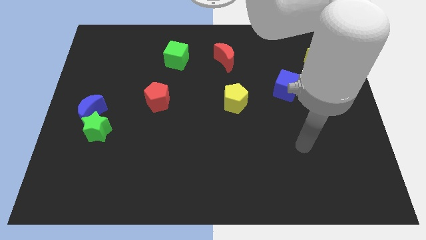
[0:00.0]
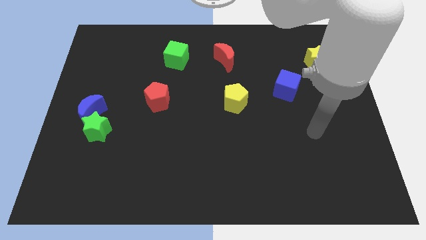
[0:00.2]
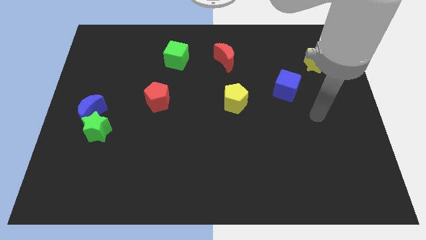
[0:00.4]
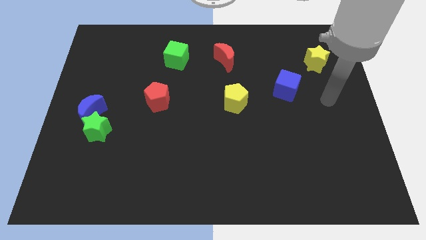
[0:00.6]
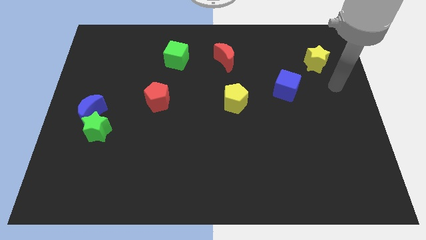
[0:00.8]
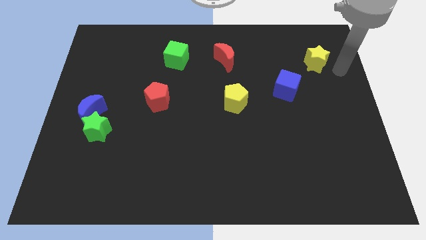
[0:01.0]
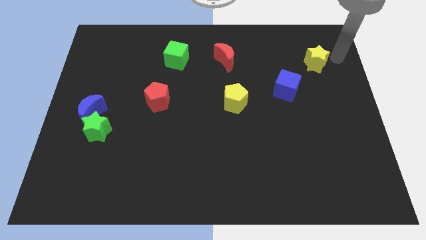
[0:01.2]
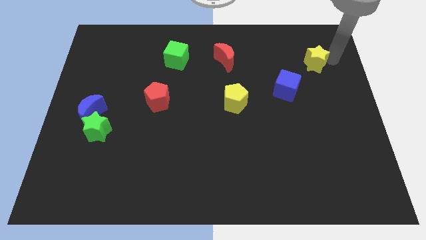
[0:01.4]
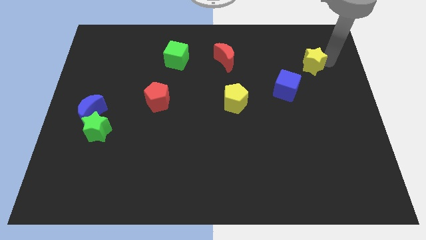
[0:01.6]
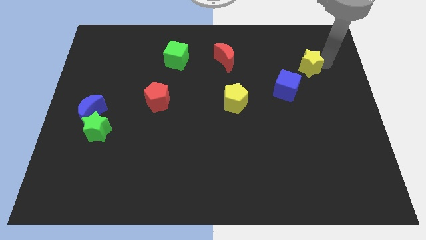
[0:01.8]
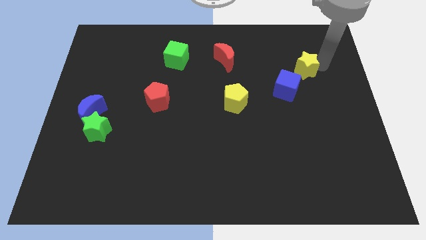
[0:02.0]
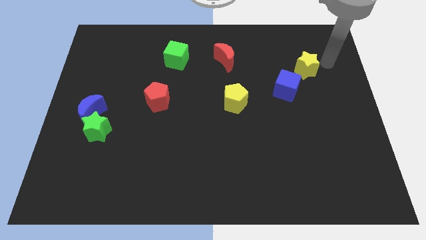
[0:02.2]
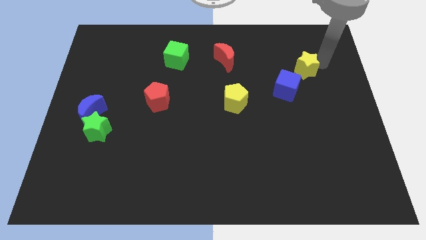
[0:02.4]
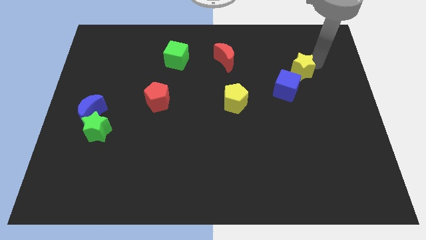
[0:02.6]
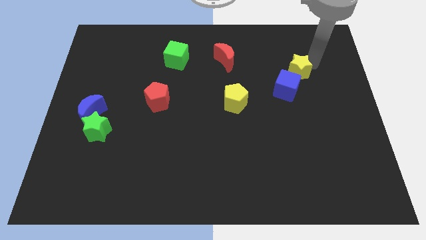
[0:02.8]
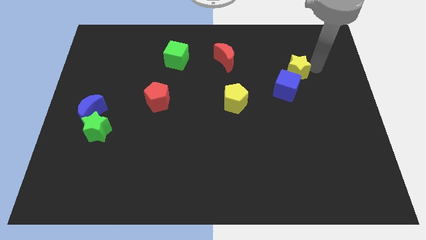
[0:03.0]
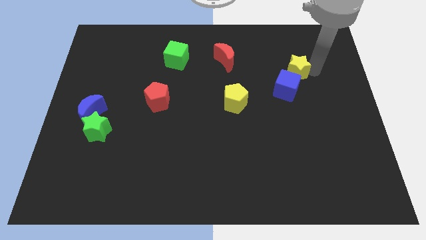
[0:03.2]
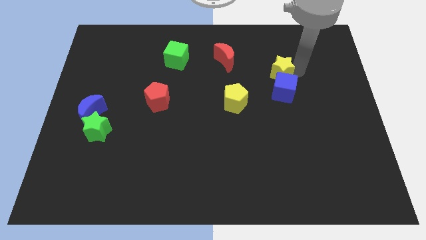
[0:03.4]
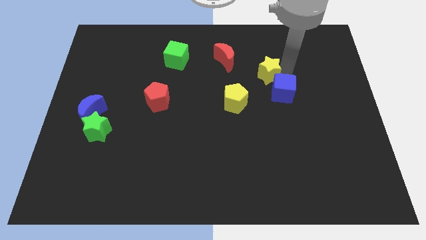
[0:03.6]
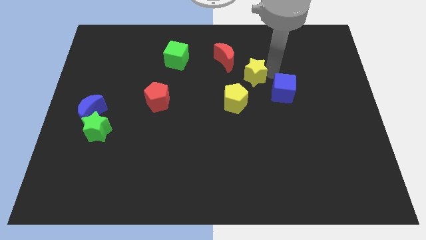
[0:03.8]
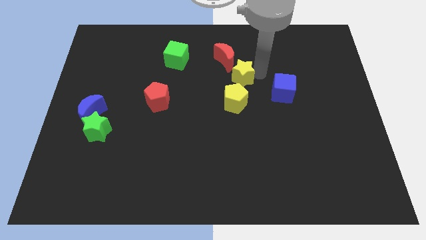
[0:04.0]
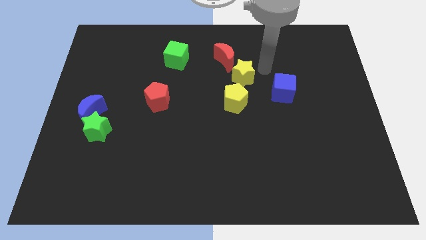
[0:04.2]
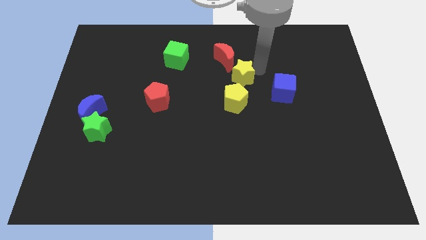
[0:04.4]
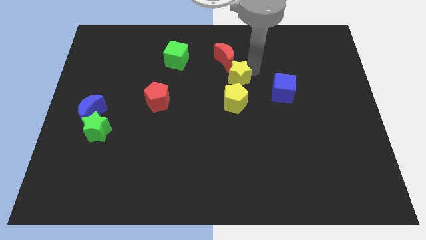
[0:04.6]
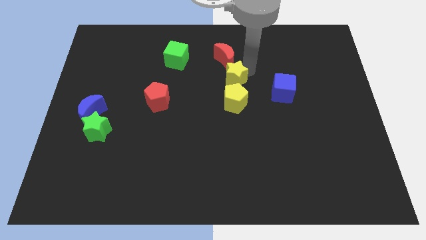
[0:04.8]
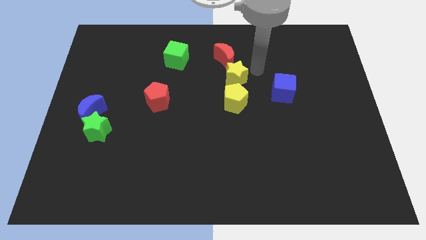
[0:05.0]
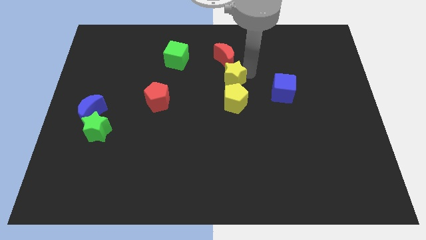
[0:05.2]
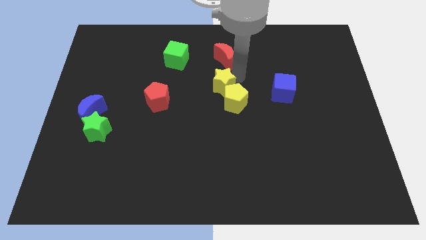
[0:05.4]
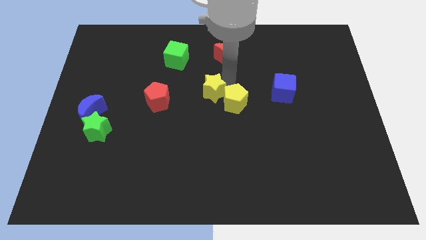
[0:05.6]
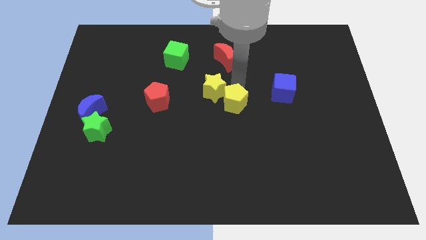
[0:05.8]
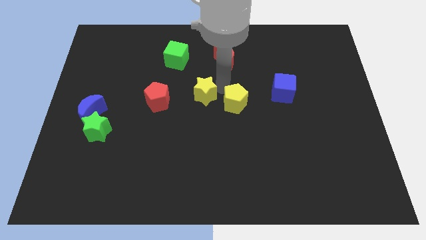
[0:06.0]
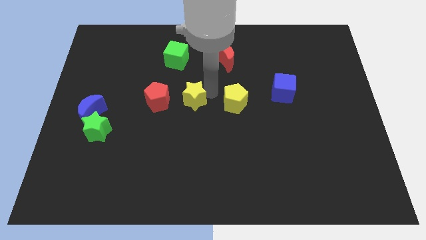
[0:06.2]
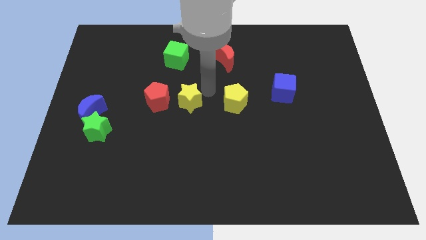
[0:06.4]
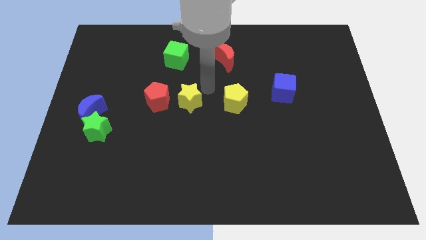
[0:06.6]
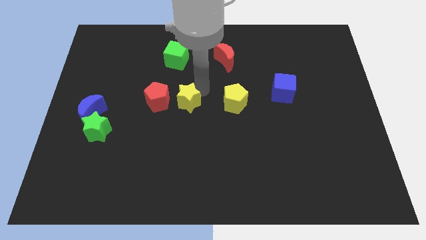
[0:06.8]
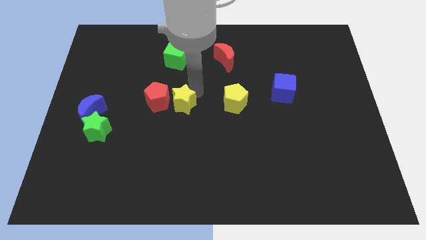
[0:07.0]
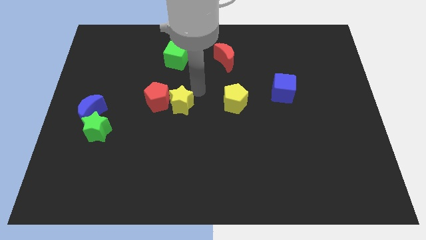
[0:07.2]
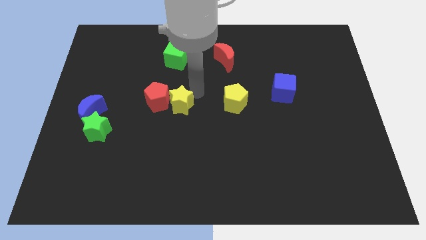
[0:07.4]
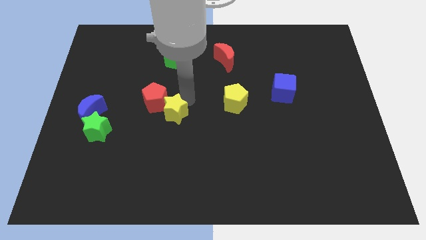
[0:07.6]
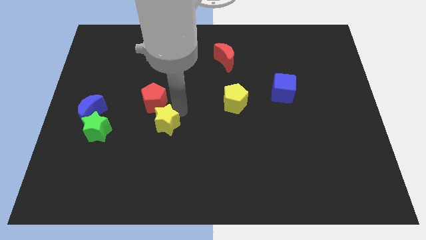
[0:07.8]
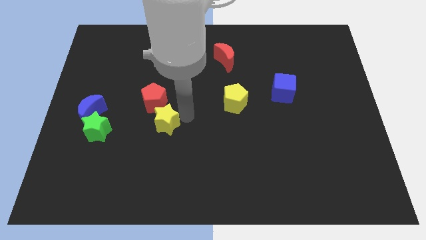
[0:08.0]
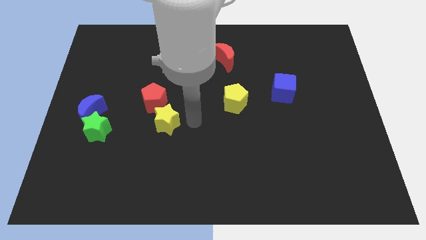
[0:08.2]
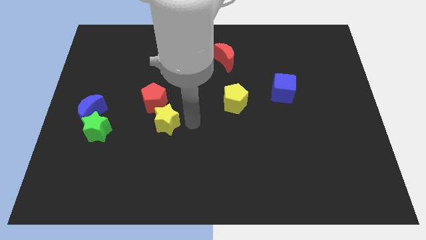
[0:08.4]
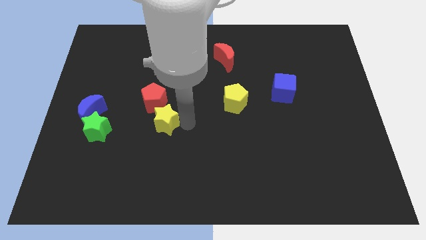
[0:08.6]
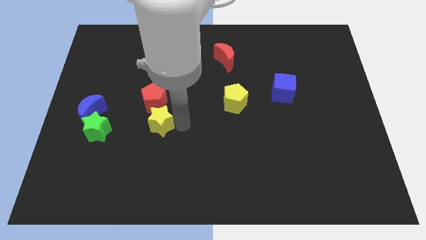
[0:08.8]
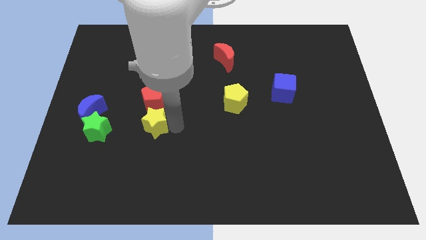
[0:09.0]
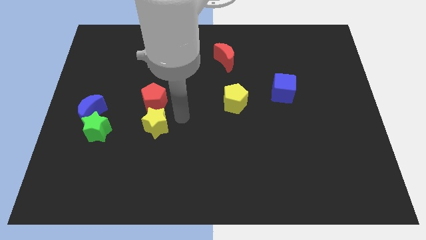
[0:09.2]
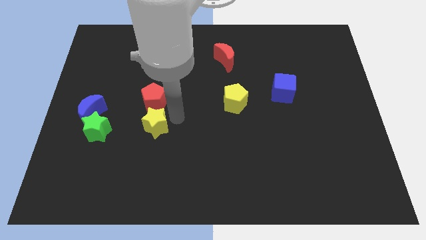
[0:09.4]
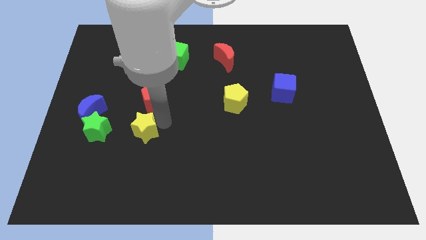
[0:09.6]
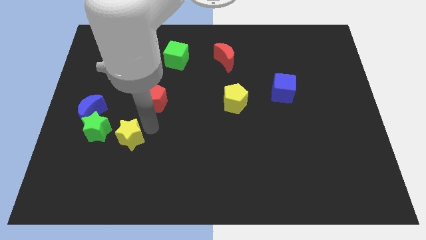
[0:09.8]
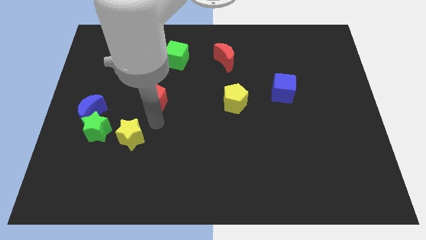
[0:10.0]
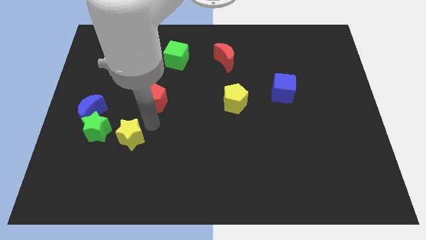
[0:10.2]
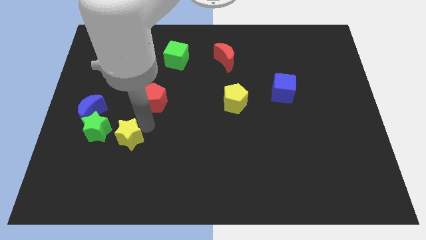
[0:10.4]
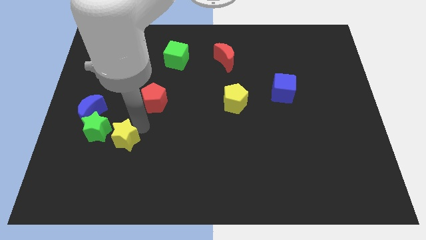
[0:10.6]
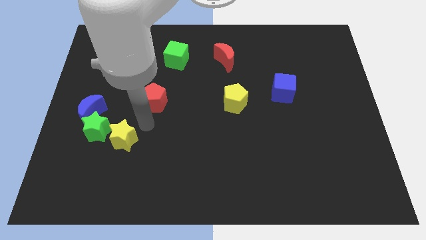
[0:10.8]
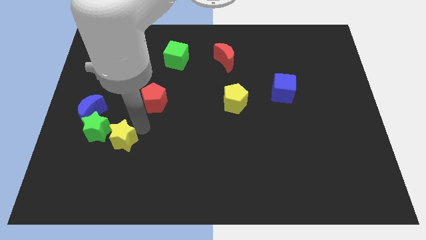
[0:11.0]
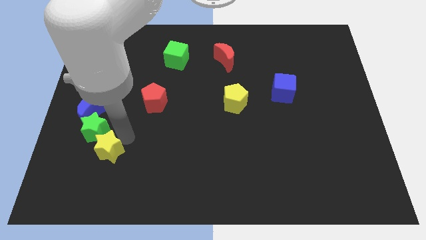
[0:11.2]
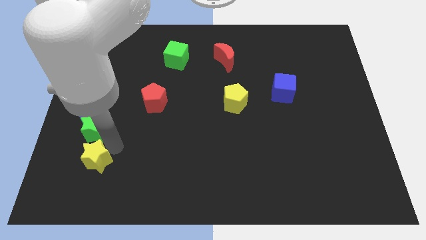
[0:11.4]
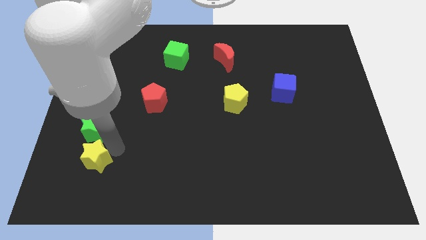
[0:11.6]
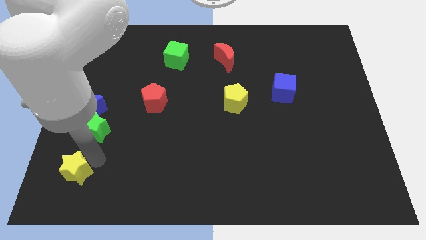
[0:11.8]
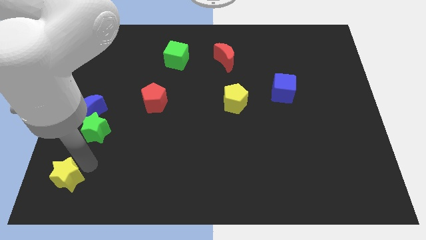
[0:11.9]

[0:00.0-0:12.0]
slide the yellow star to the bottom left
